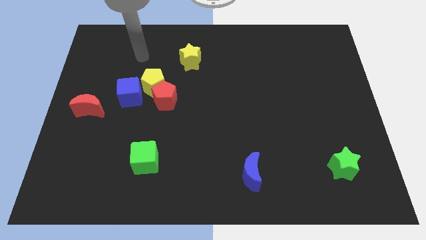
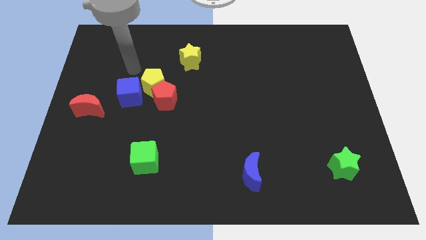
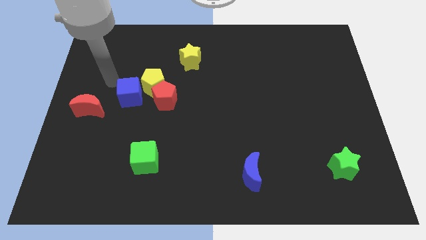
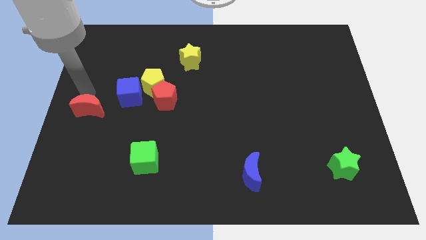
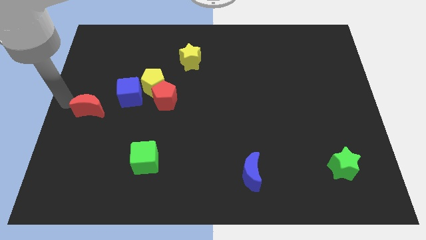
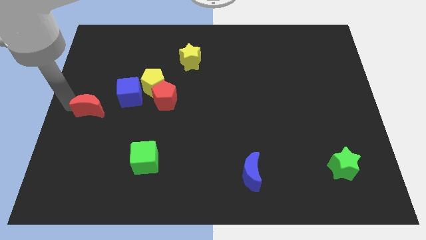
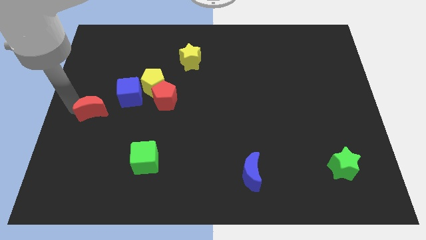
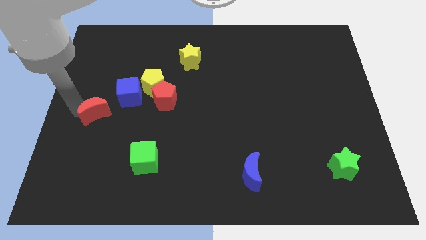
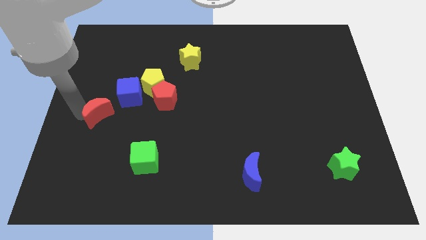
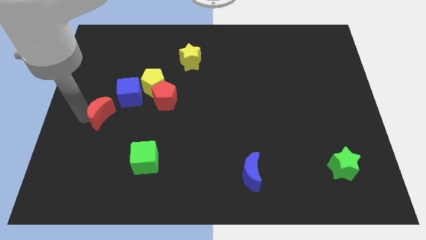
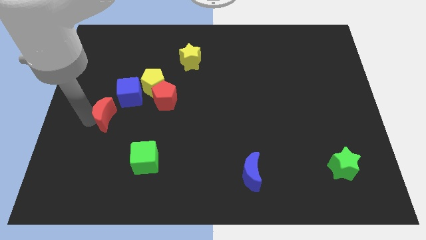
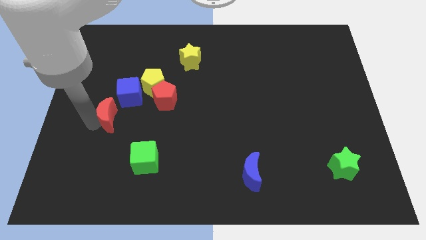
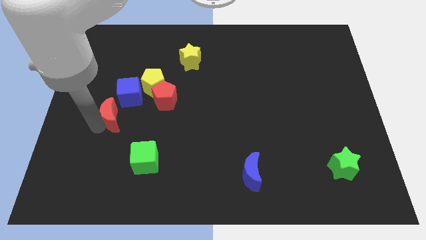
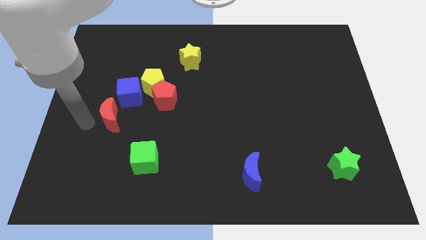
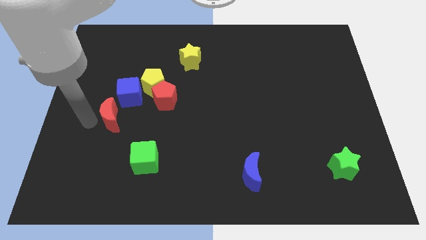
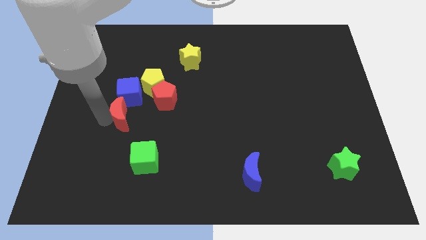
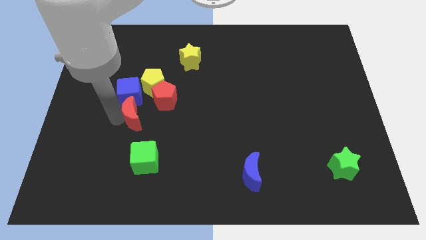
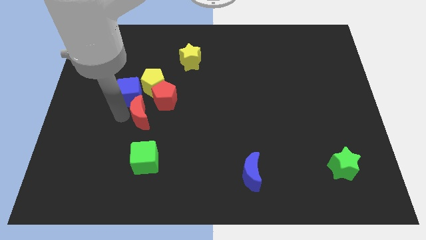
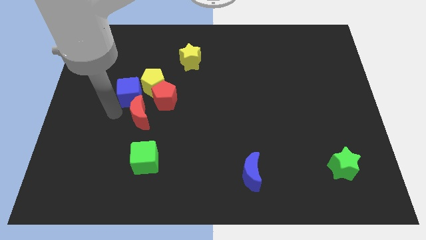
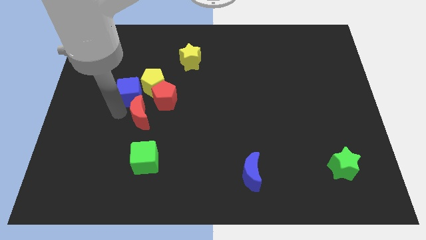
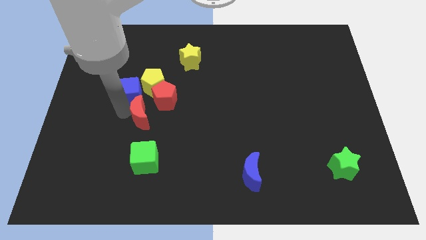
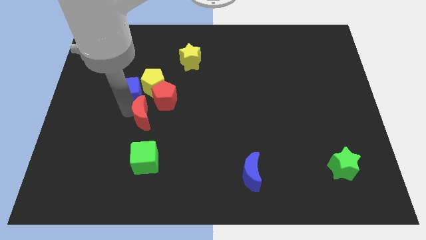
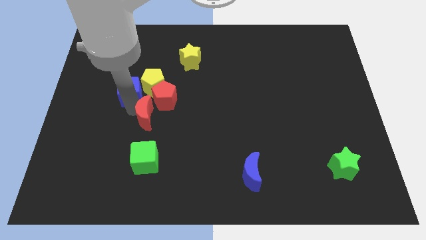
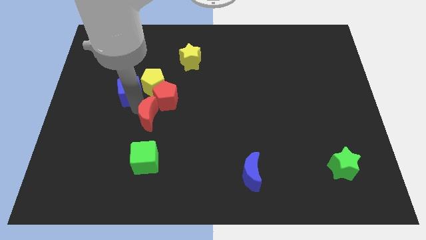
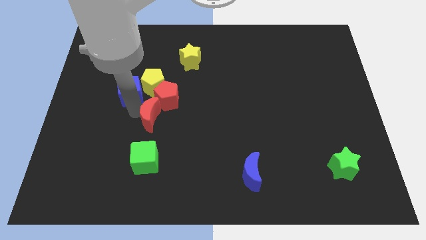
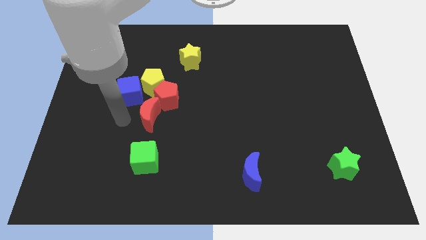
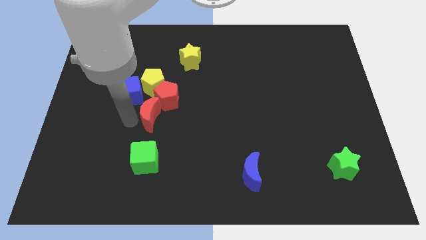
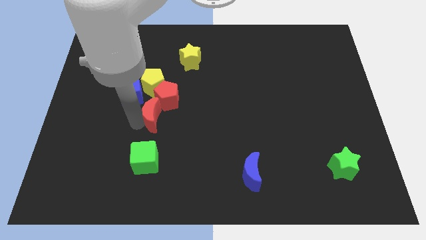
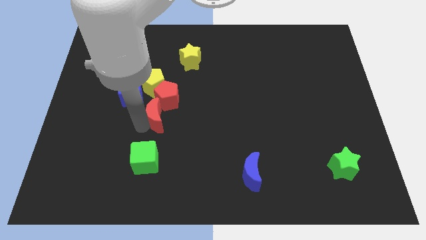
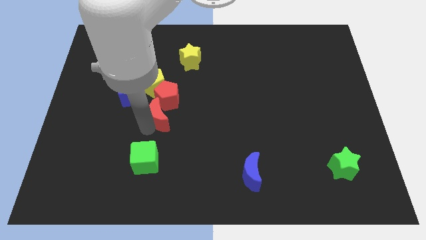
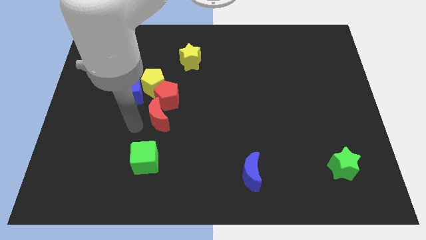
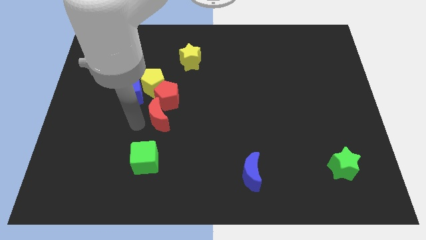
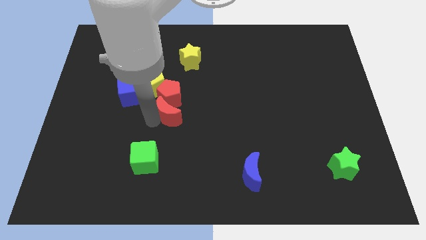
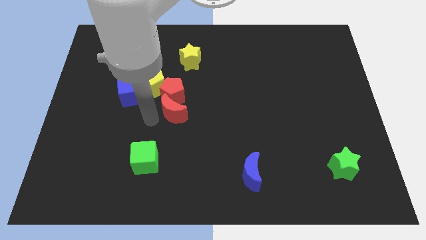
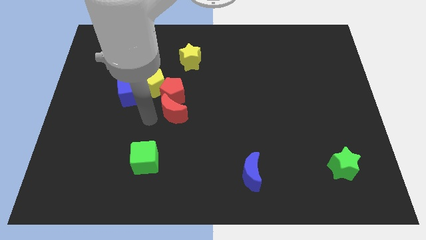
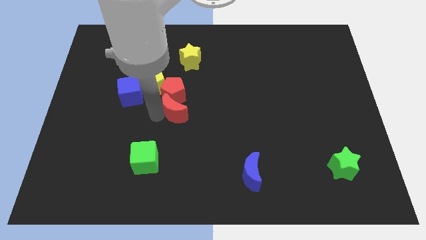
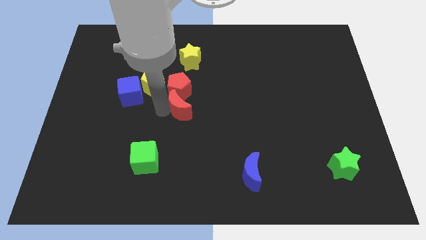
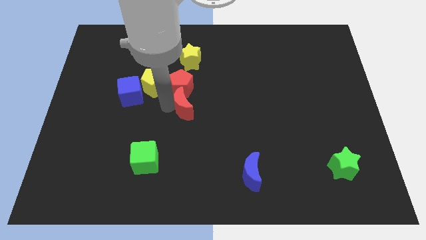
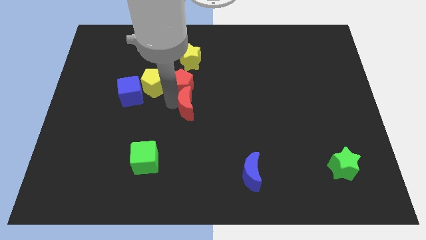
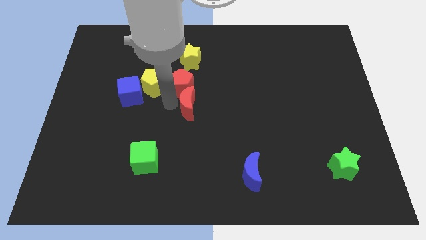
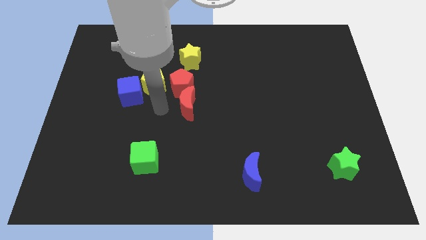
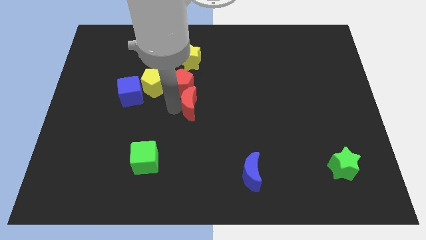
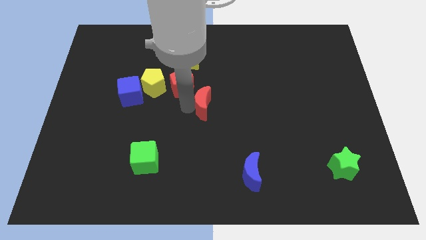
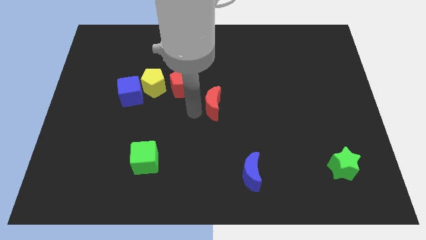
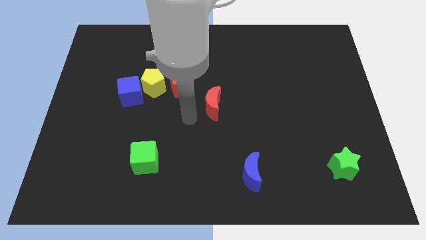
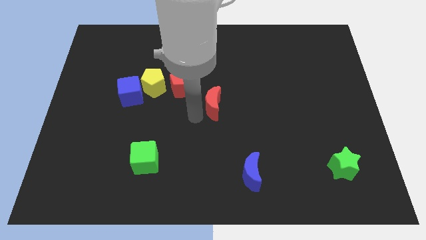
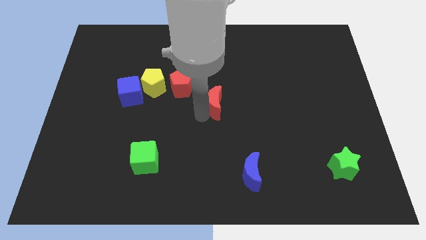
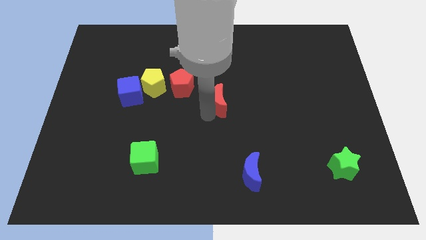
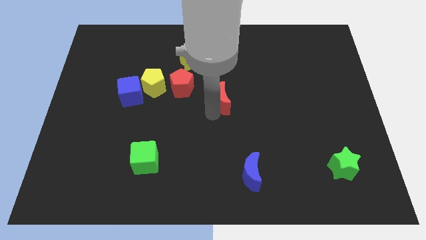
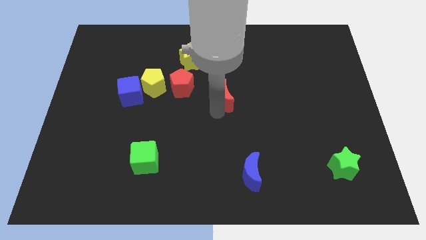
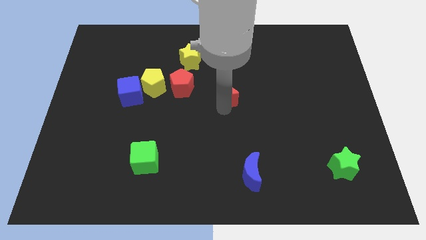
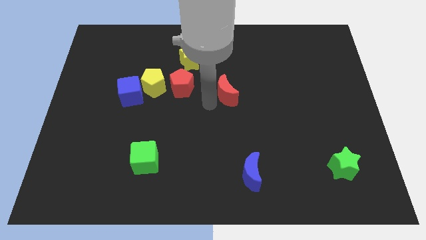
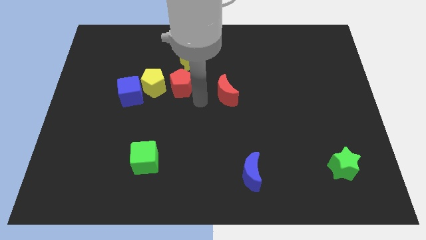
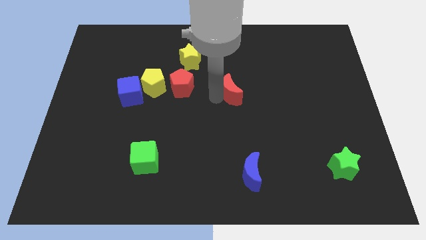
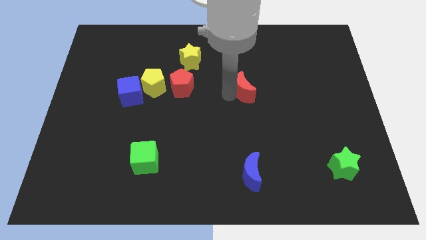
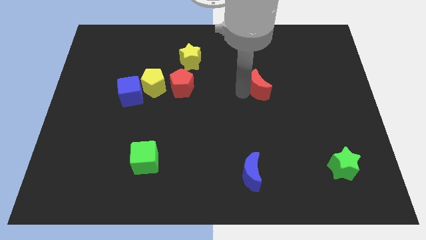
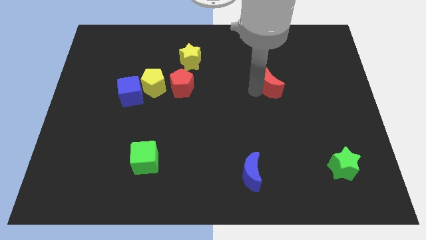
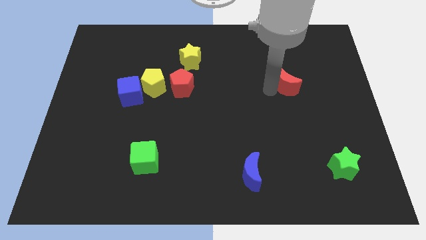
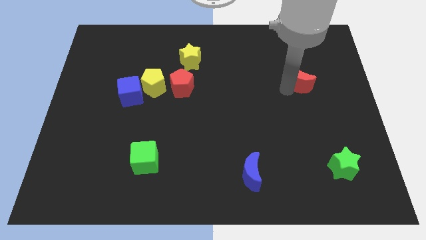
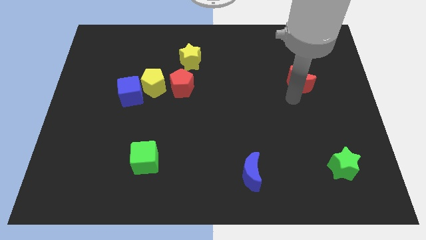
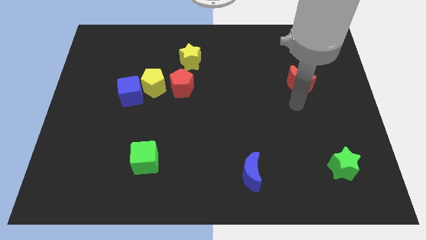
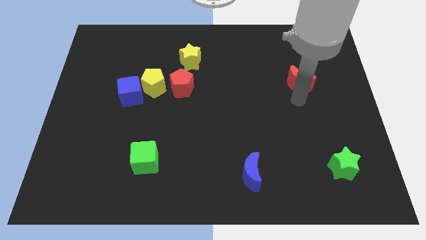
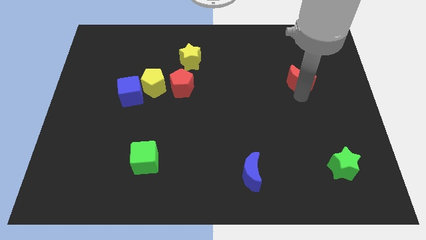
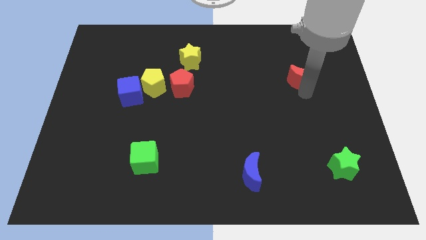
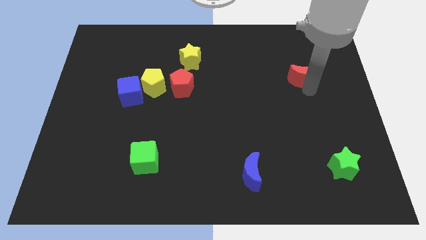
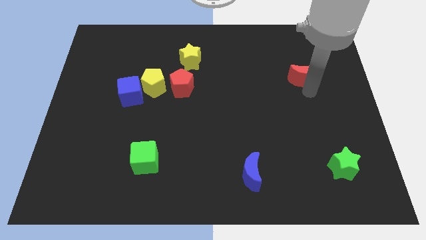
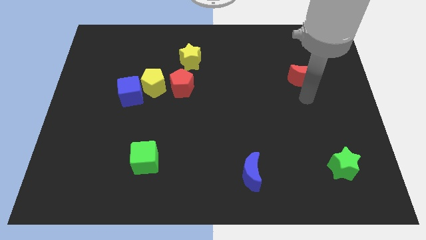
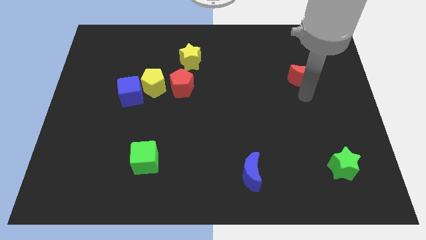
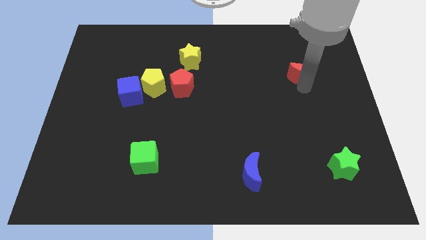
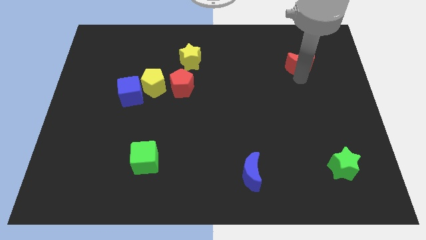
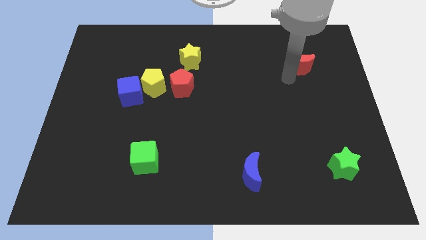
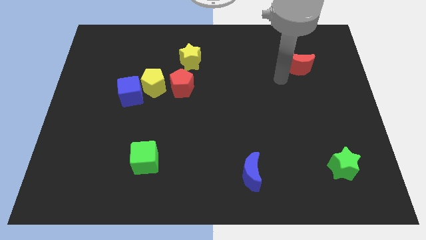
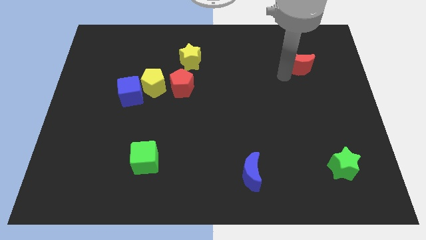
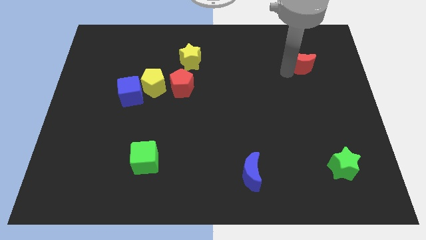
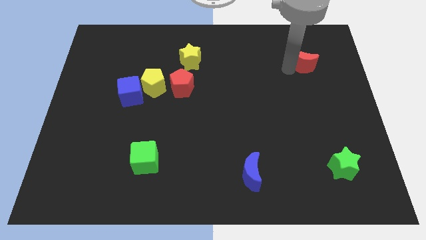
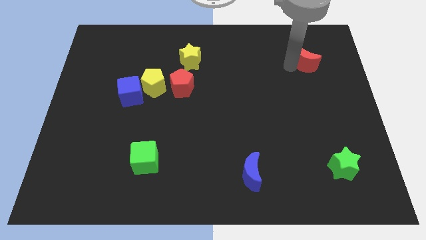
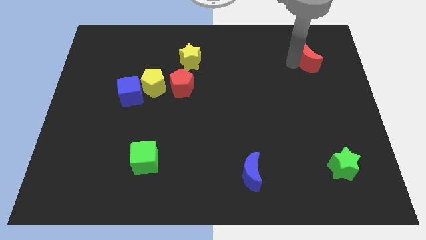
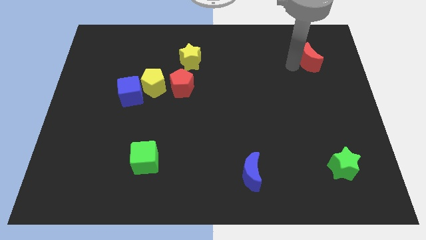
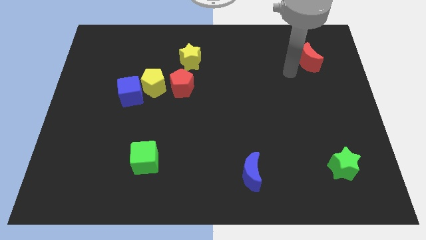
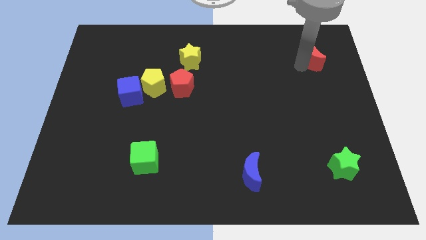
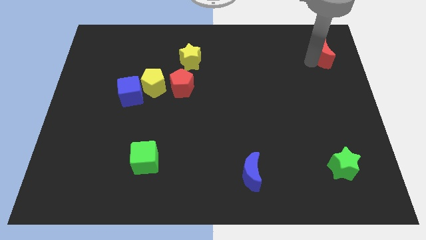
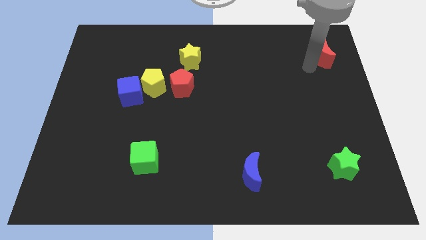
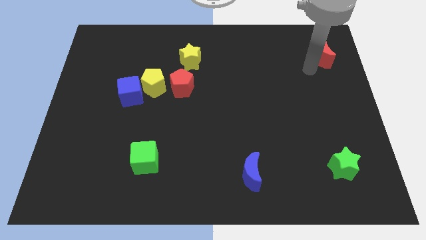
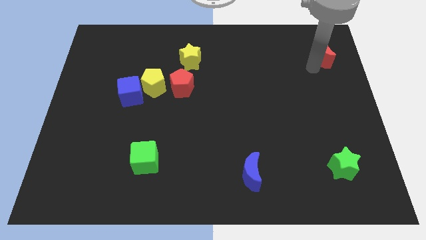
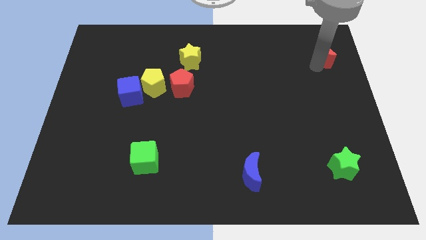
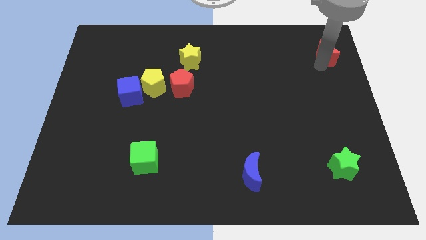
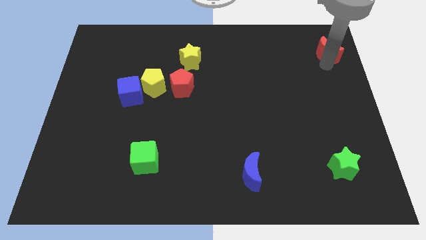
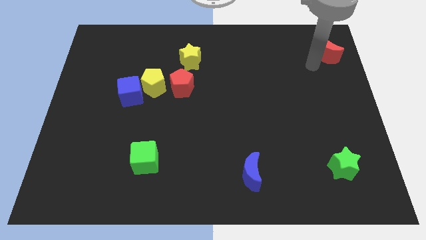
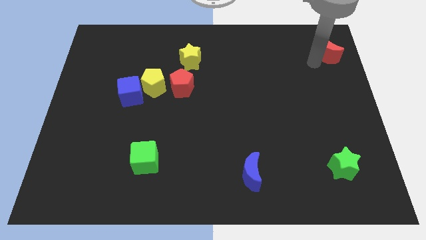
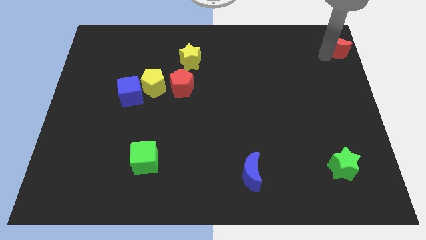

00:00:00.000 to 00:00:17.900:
put the red moon to the top right of the board
